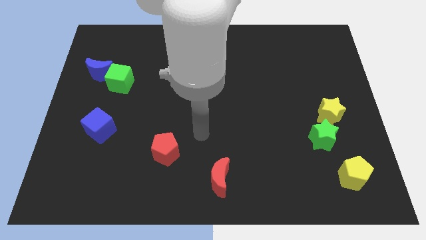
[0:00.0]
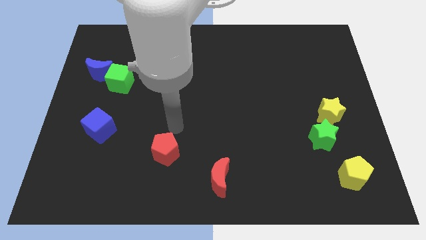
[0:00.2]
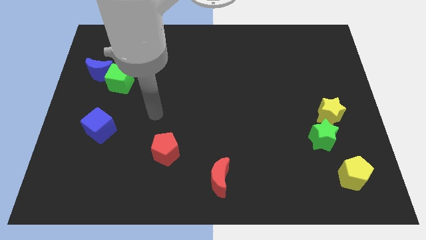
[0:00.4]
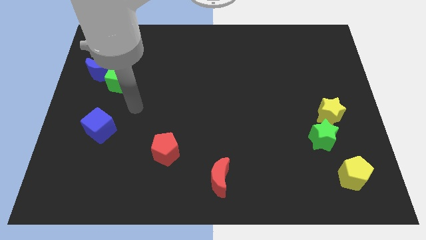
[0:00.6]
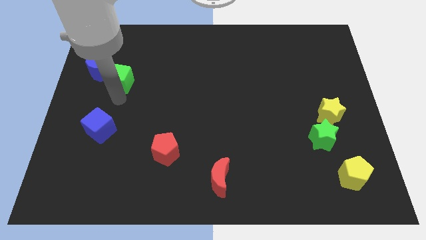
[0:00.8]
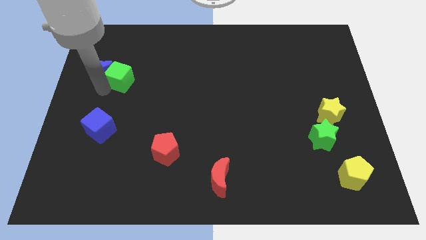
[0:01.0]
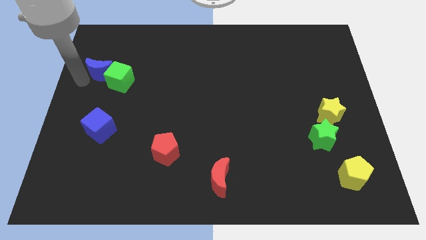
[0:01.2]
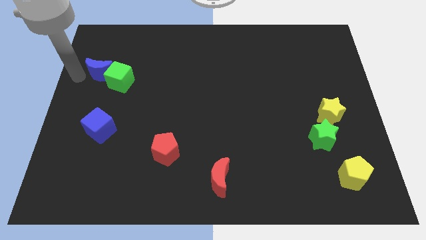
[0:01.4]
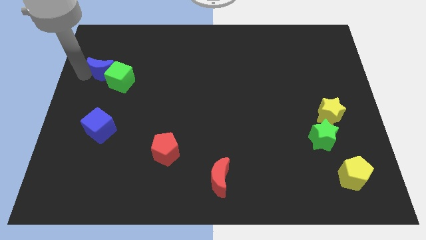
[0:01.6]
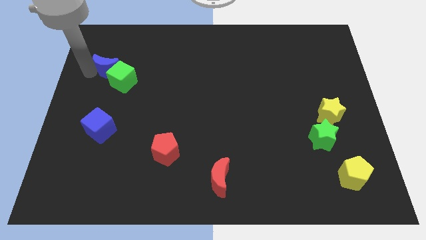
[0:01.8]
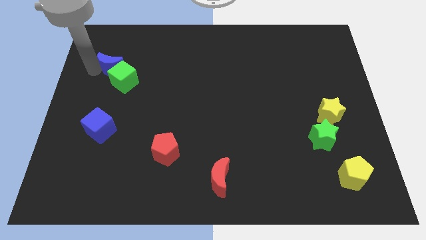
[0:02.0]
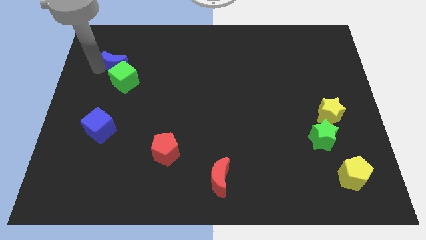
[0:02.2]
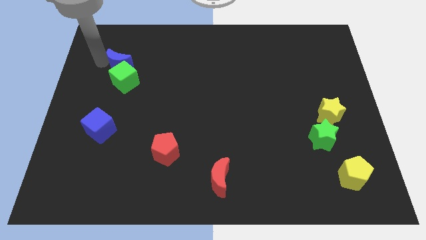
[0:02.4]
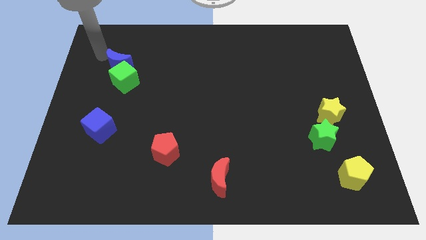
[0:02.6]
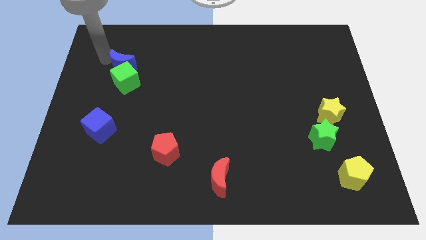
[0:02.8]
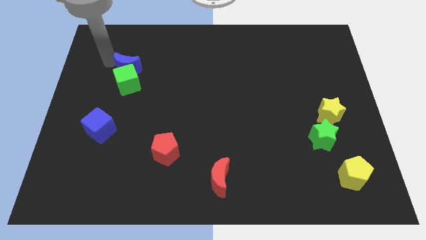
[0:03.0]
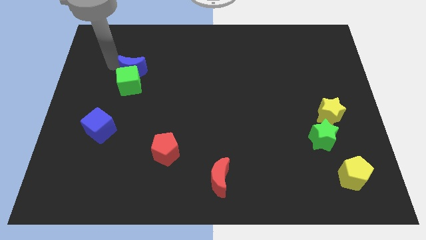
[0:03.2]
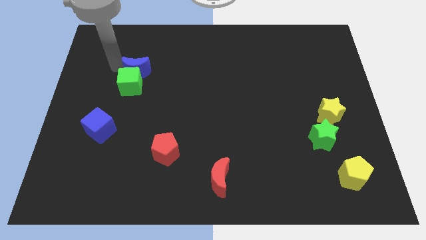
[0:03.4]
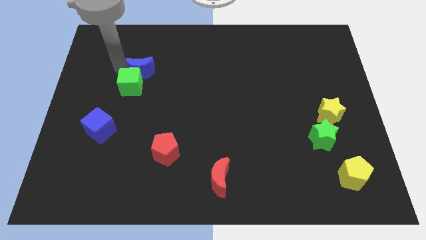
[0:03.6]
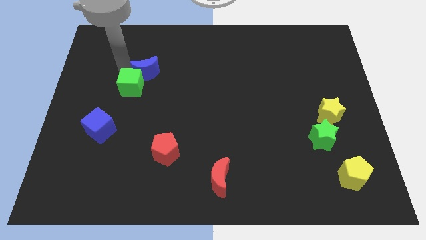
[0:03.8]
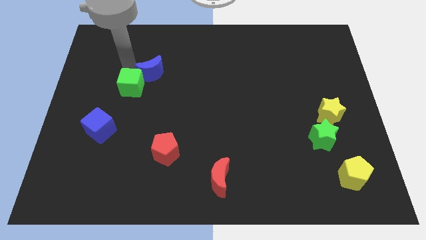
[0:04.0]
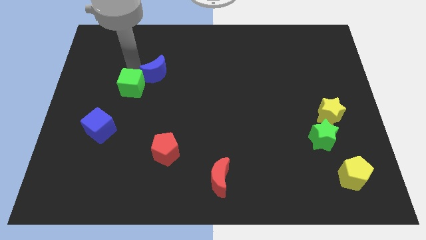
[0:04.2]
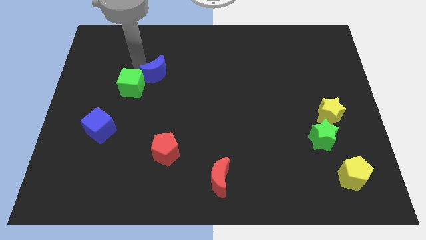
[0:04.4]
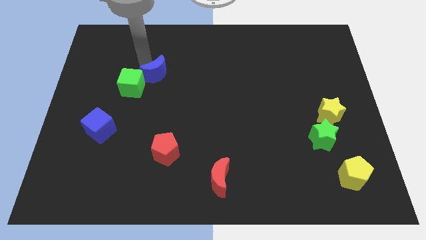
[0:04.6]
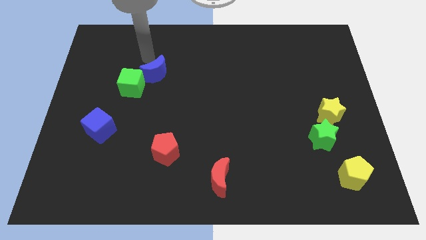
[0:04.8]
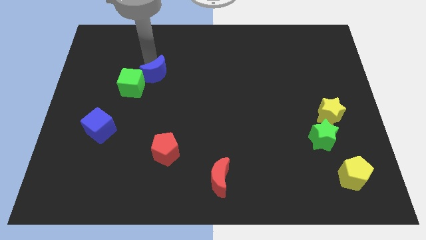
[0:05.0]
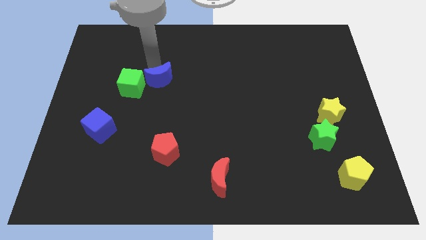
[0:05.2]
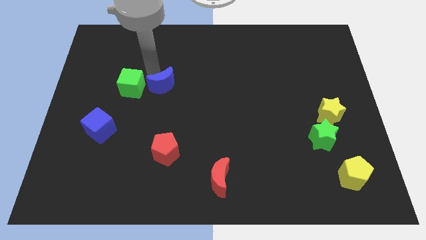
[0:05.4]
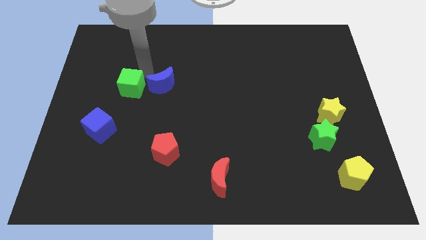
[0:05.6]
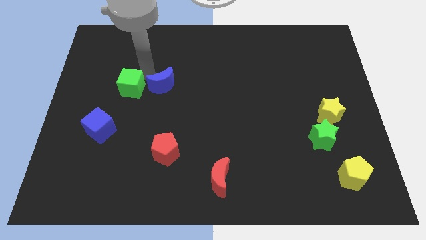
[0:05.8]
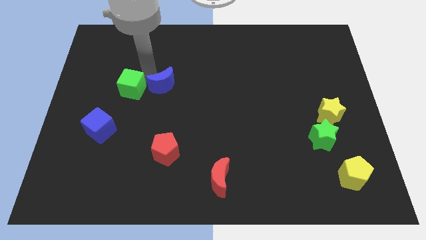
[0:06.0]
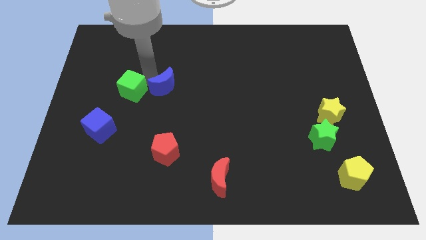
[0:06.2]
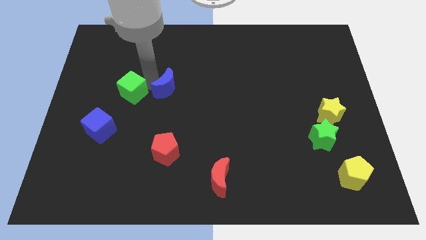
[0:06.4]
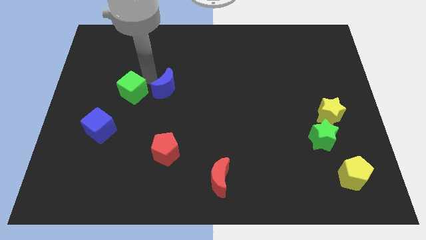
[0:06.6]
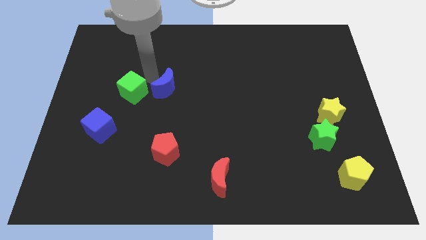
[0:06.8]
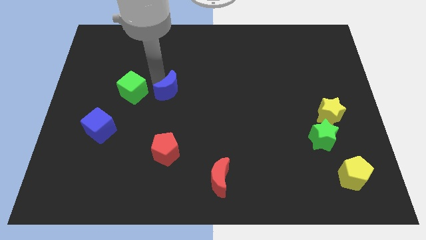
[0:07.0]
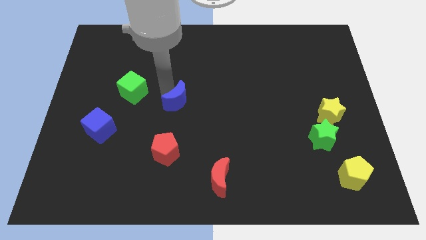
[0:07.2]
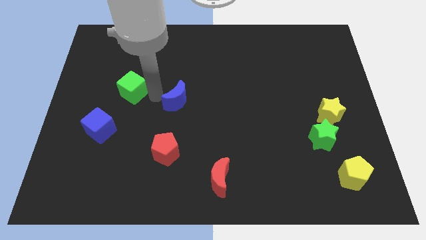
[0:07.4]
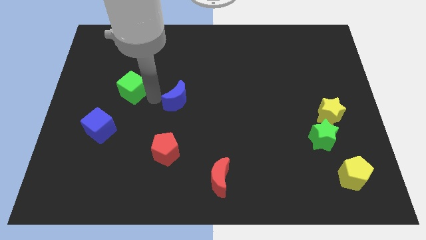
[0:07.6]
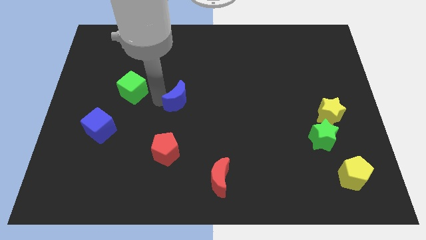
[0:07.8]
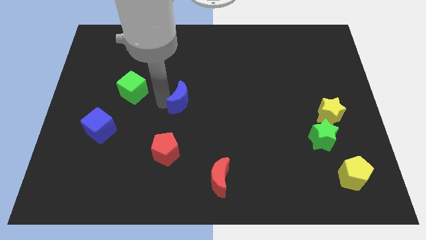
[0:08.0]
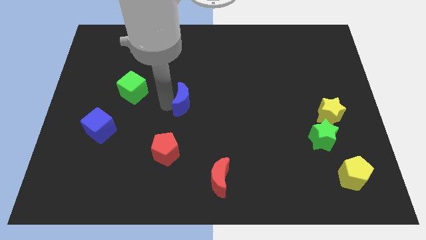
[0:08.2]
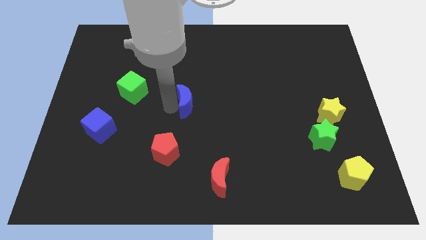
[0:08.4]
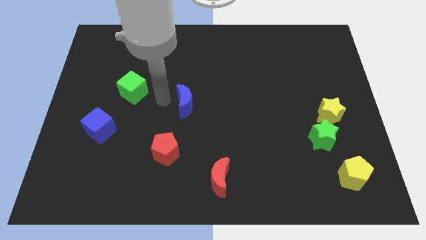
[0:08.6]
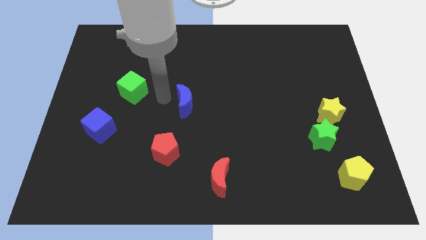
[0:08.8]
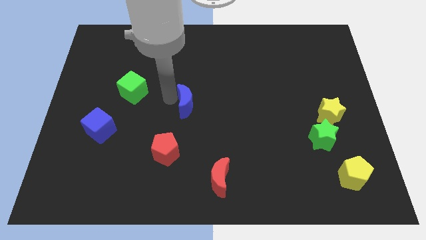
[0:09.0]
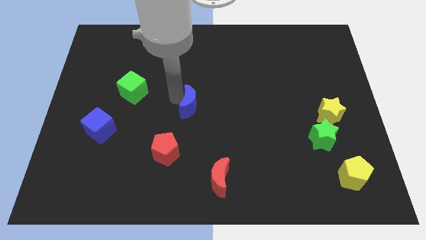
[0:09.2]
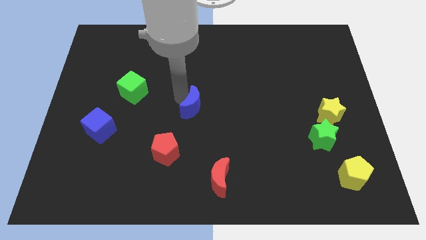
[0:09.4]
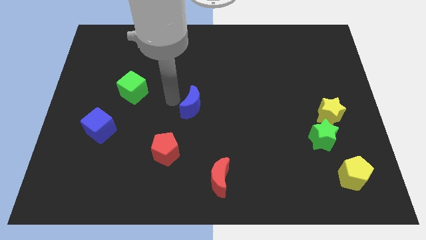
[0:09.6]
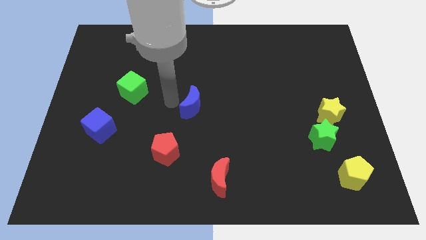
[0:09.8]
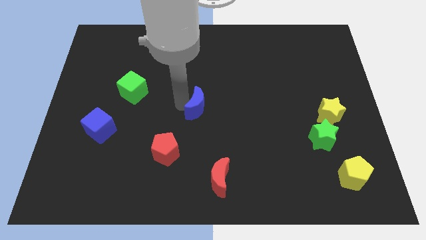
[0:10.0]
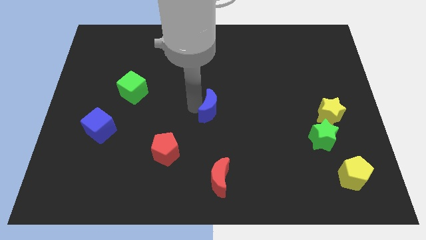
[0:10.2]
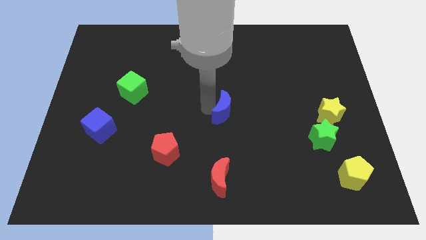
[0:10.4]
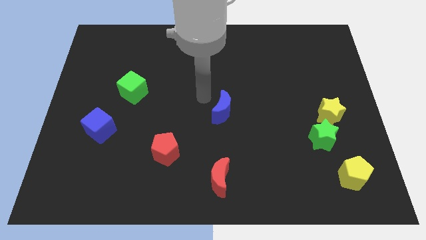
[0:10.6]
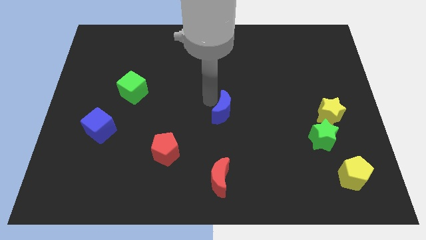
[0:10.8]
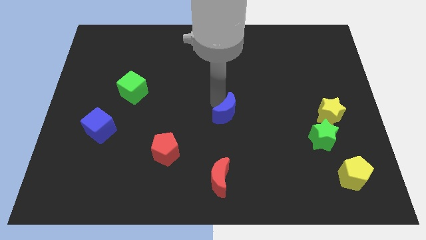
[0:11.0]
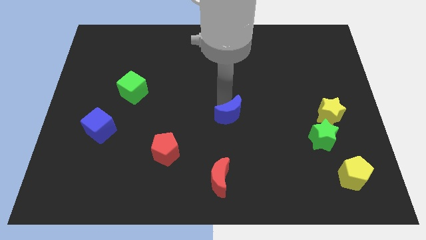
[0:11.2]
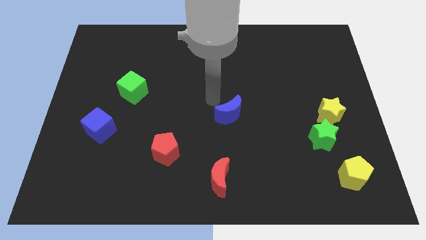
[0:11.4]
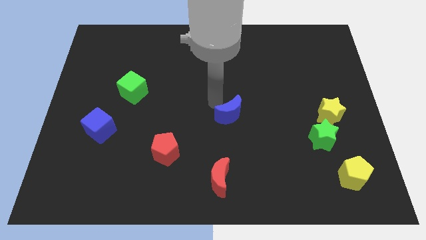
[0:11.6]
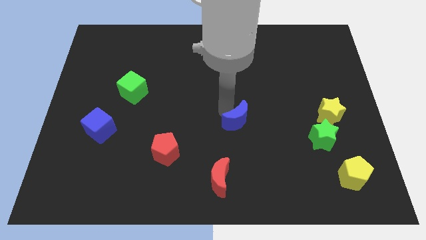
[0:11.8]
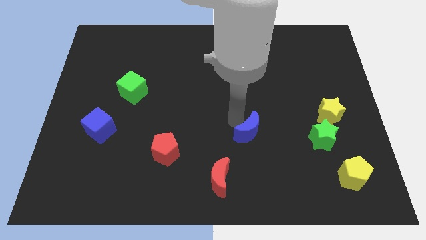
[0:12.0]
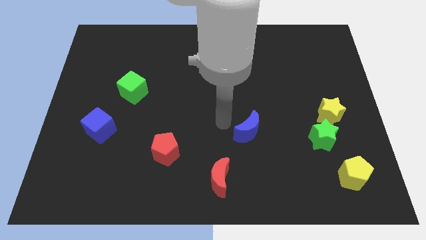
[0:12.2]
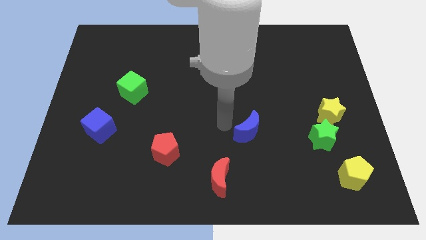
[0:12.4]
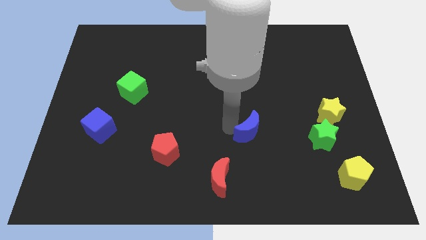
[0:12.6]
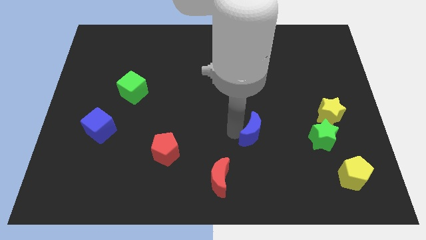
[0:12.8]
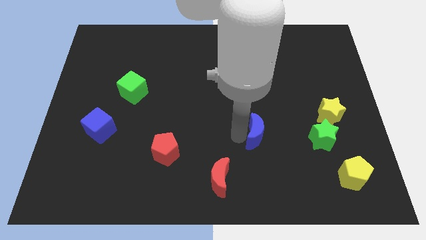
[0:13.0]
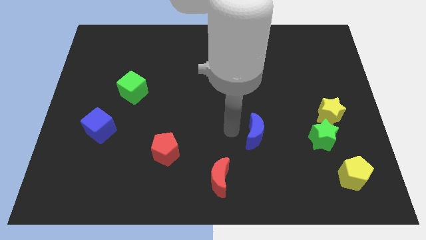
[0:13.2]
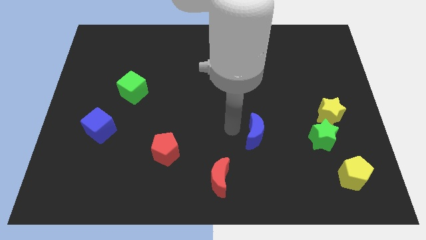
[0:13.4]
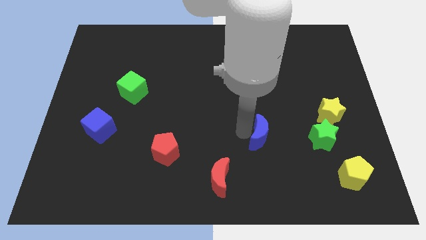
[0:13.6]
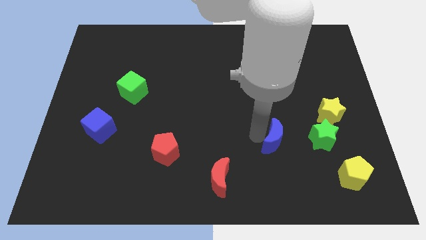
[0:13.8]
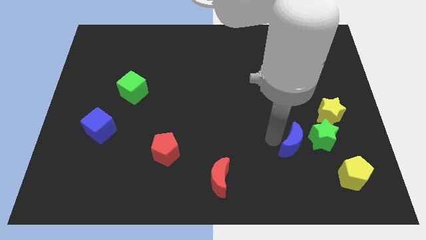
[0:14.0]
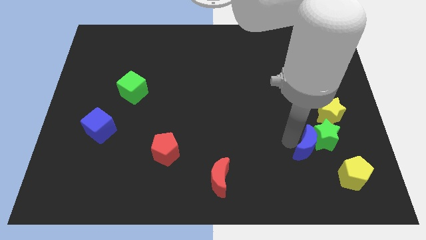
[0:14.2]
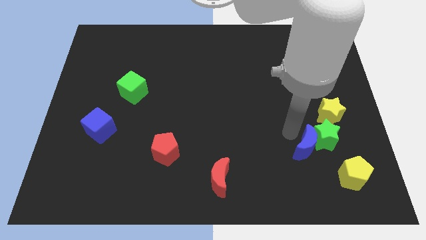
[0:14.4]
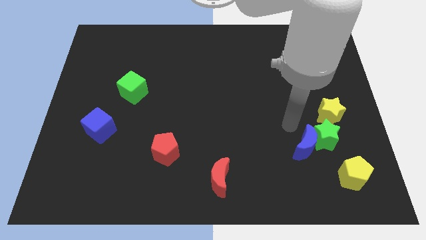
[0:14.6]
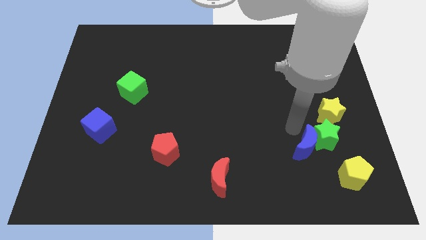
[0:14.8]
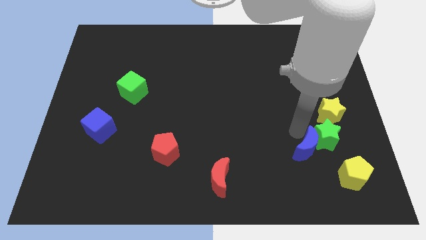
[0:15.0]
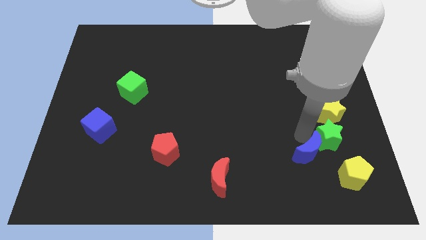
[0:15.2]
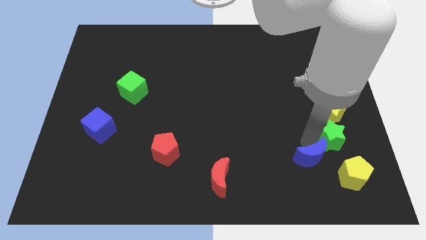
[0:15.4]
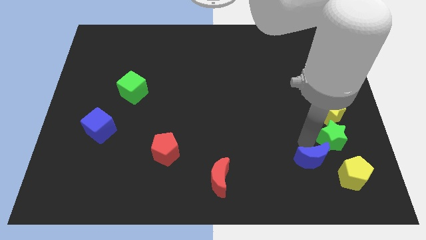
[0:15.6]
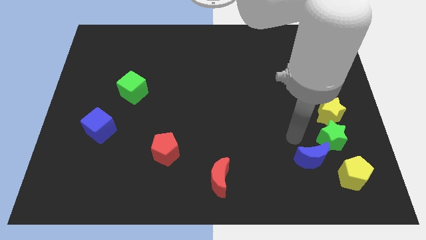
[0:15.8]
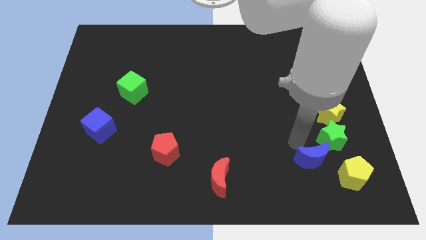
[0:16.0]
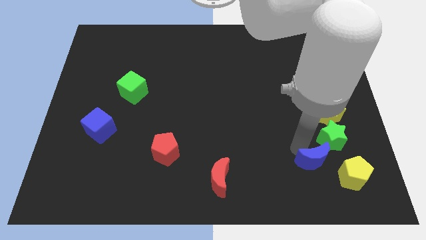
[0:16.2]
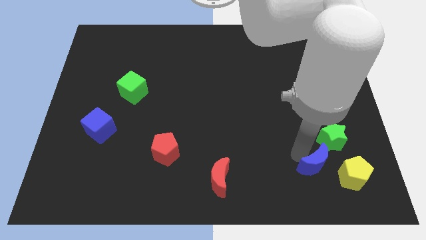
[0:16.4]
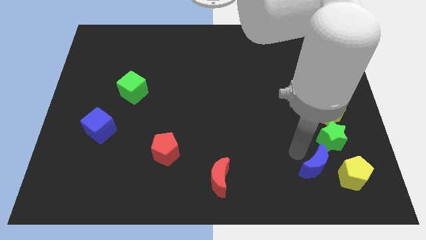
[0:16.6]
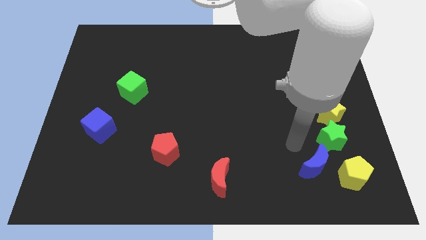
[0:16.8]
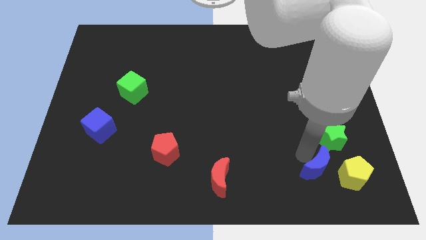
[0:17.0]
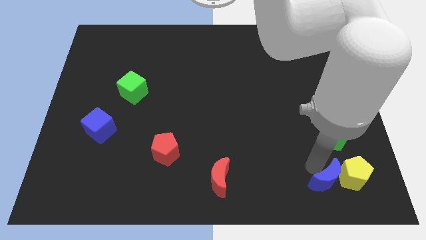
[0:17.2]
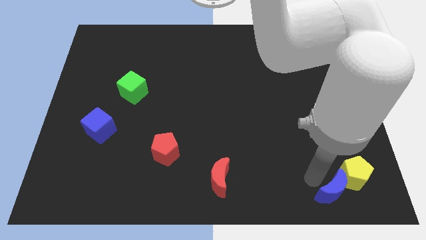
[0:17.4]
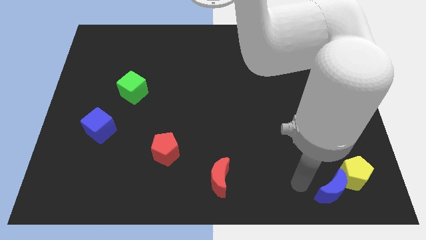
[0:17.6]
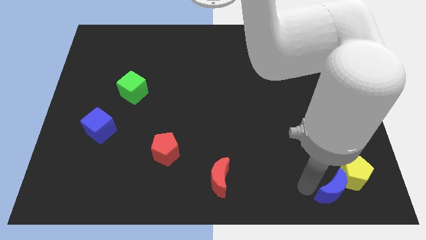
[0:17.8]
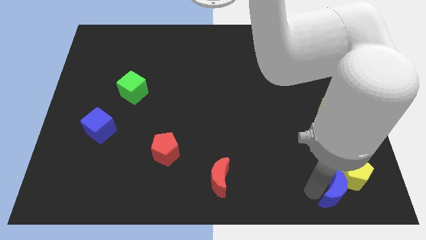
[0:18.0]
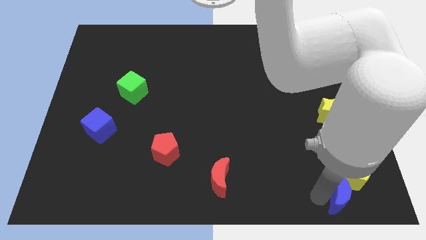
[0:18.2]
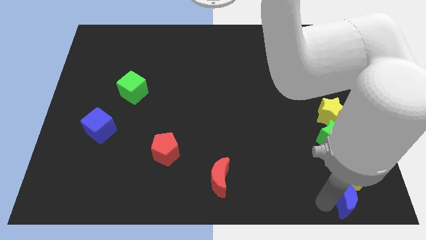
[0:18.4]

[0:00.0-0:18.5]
move the blue moon to the lower right corner
